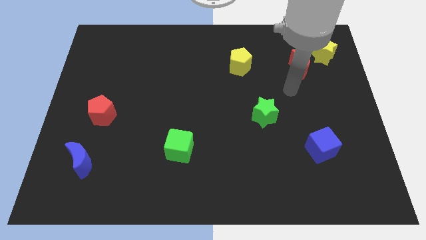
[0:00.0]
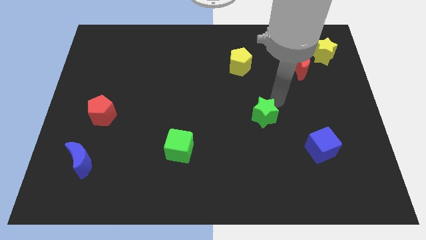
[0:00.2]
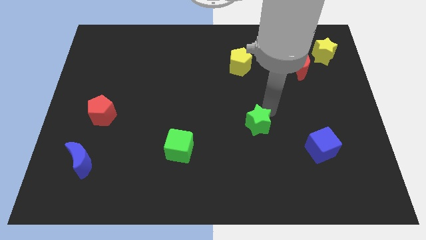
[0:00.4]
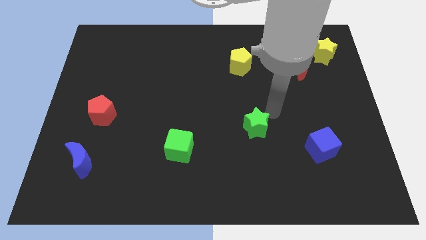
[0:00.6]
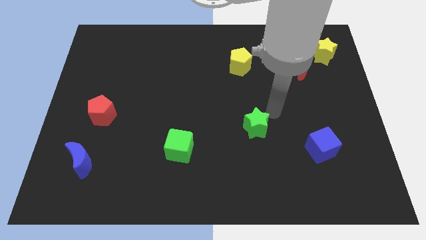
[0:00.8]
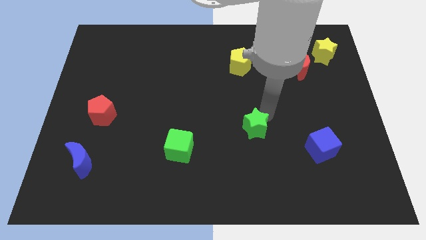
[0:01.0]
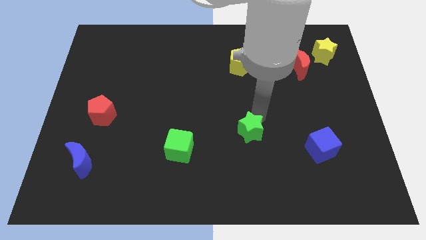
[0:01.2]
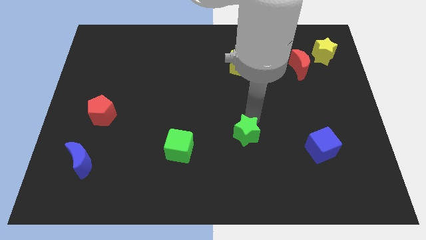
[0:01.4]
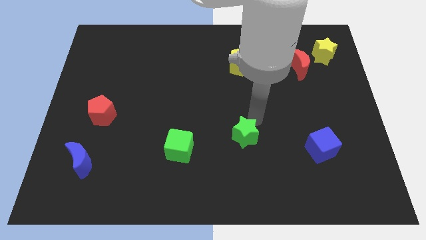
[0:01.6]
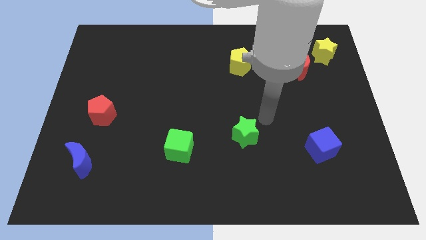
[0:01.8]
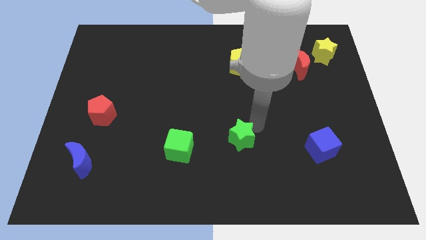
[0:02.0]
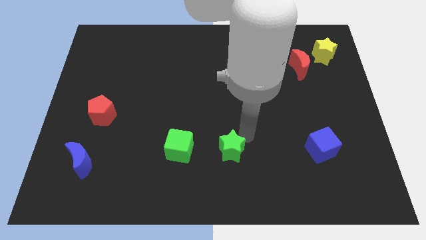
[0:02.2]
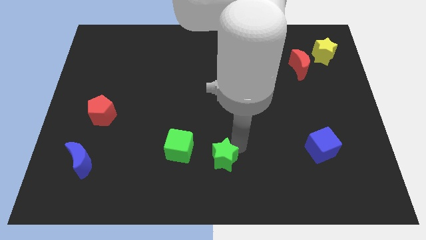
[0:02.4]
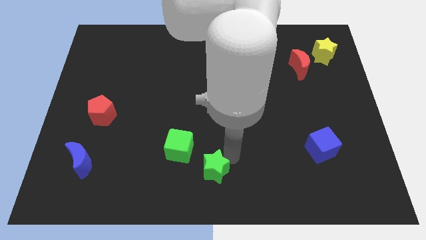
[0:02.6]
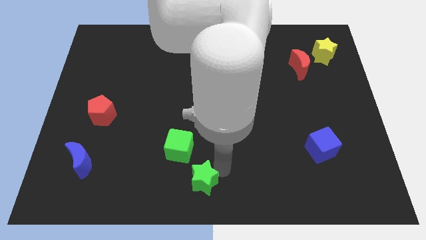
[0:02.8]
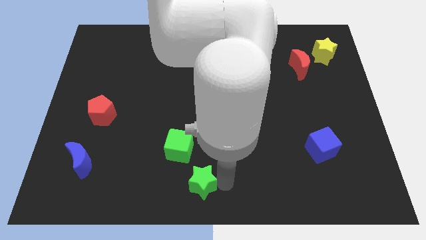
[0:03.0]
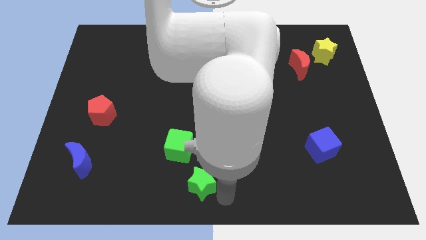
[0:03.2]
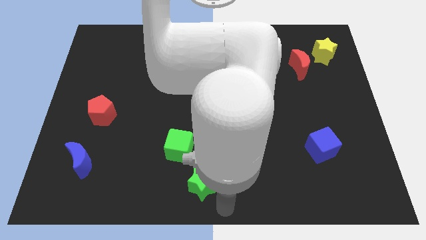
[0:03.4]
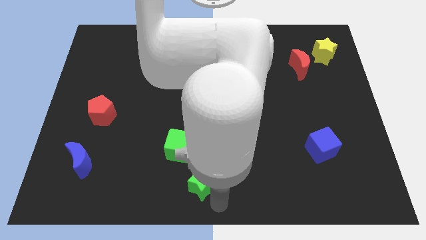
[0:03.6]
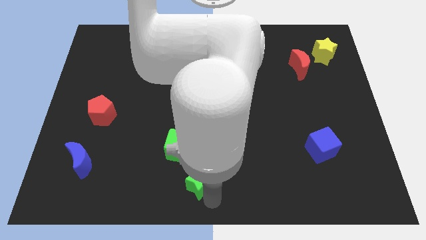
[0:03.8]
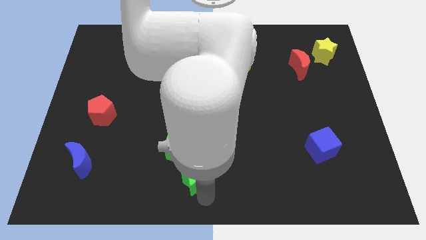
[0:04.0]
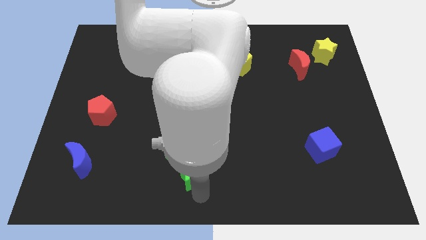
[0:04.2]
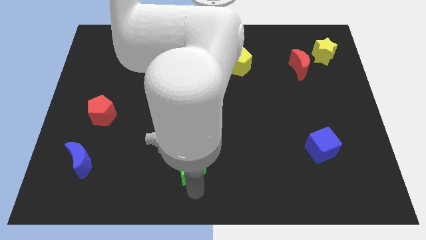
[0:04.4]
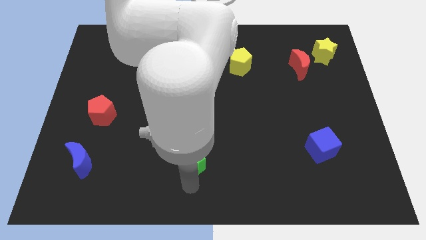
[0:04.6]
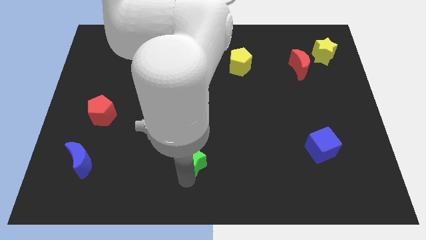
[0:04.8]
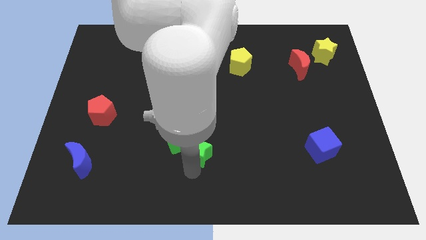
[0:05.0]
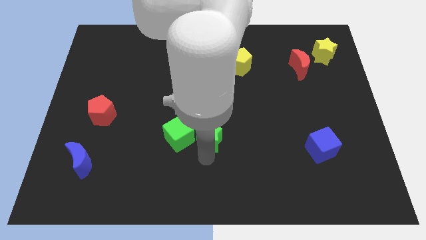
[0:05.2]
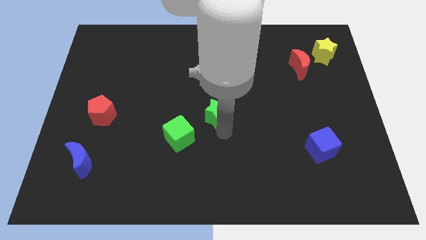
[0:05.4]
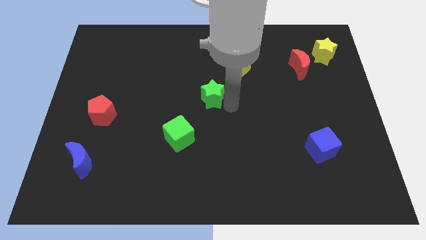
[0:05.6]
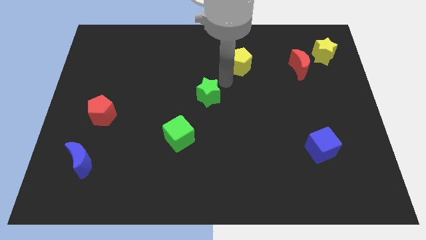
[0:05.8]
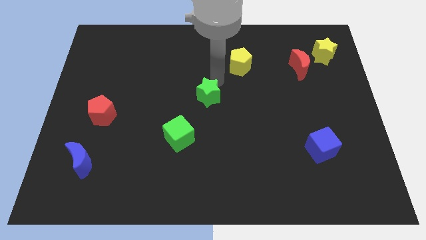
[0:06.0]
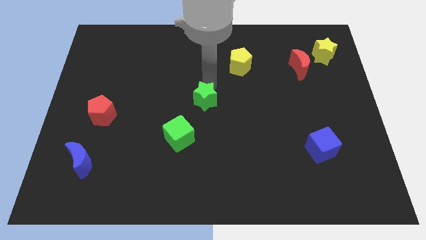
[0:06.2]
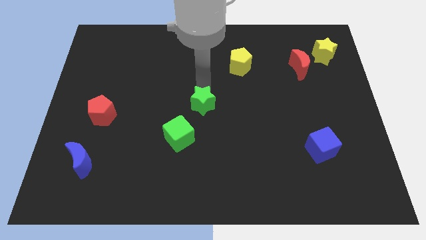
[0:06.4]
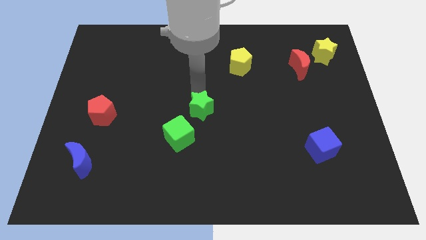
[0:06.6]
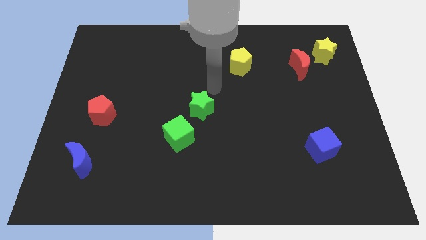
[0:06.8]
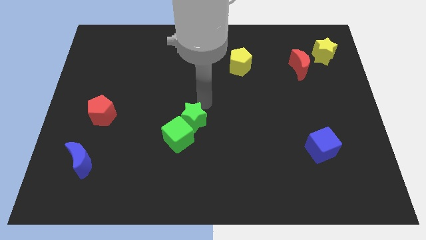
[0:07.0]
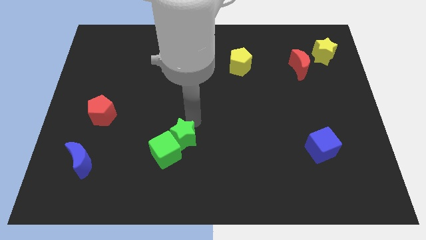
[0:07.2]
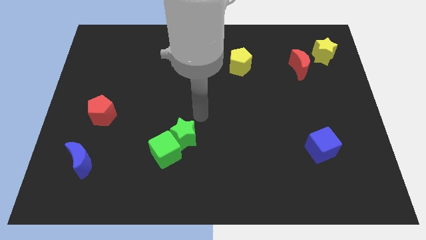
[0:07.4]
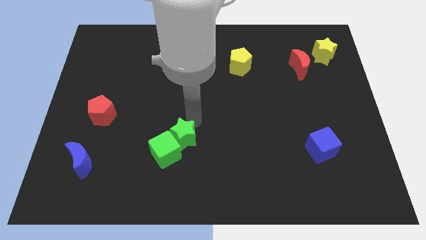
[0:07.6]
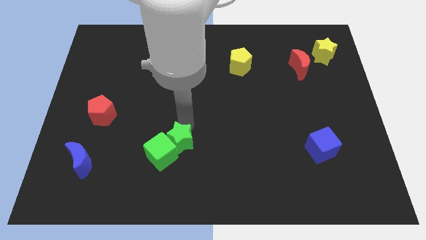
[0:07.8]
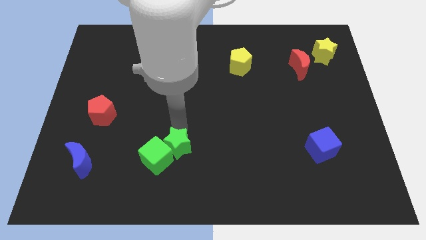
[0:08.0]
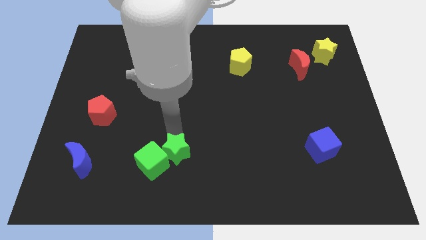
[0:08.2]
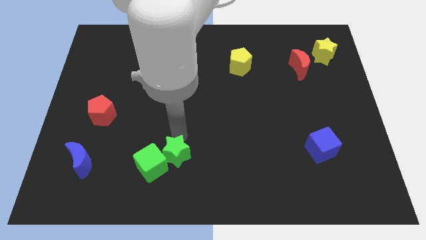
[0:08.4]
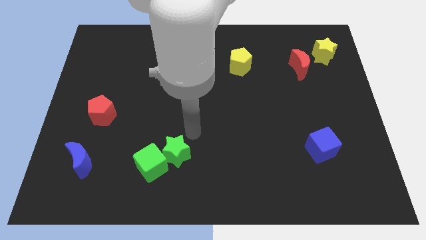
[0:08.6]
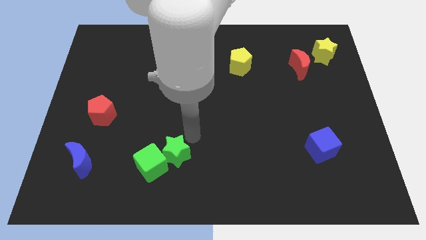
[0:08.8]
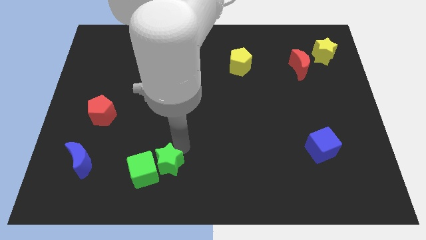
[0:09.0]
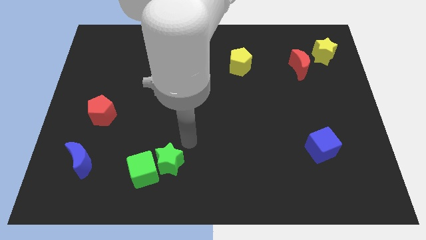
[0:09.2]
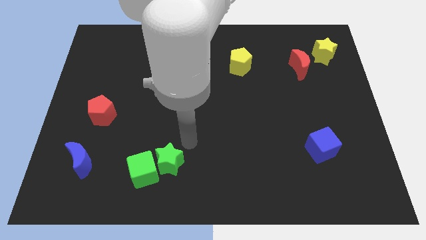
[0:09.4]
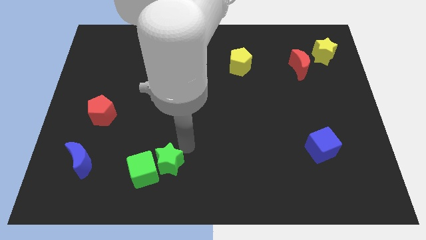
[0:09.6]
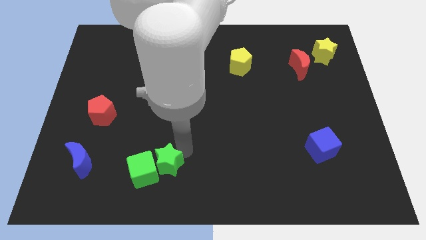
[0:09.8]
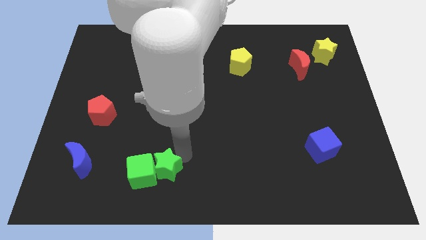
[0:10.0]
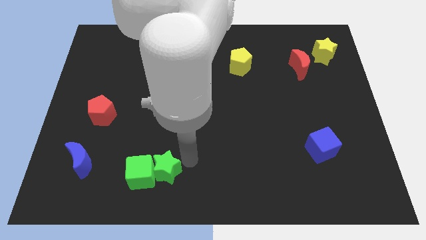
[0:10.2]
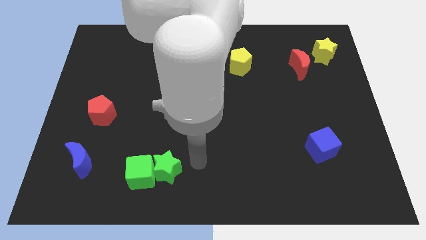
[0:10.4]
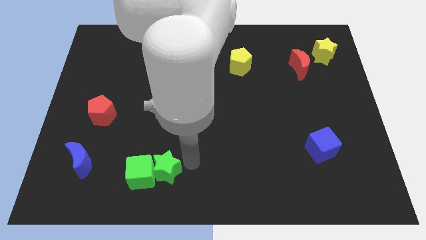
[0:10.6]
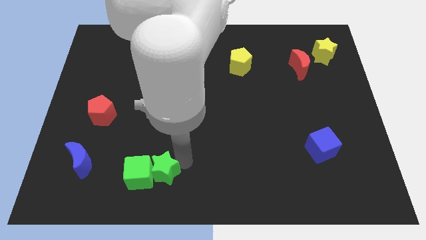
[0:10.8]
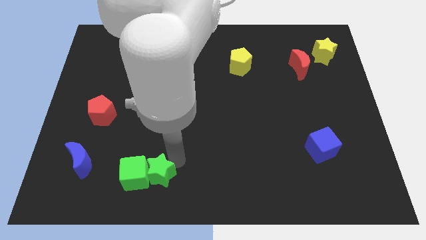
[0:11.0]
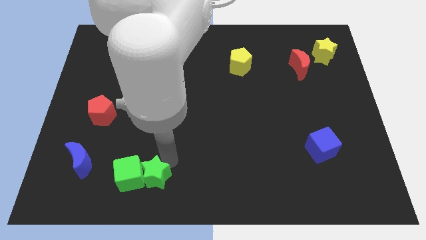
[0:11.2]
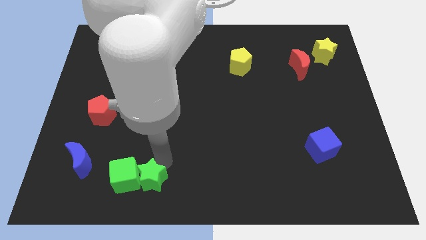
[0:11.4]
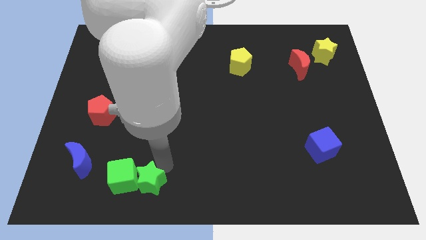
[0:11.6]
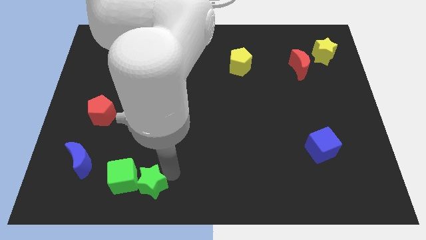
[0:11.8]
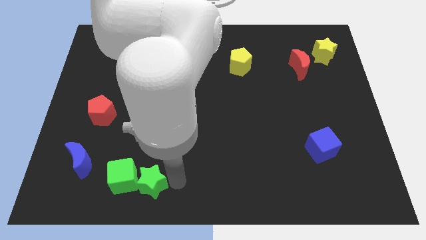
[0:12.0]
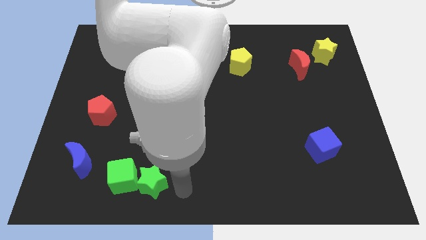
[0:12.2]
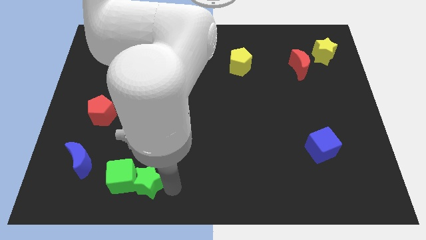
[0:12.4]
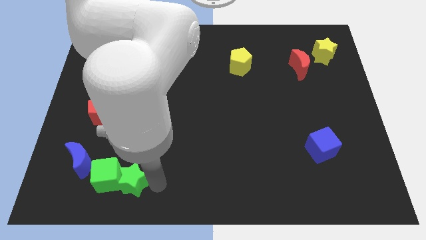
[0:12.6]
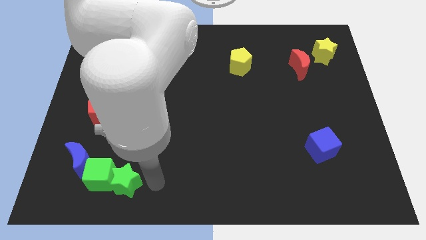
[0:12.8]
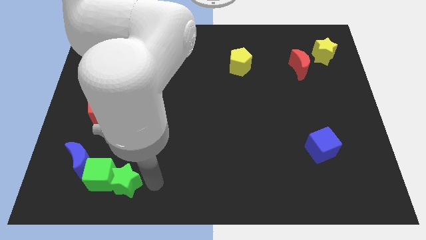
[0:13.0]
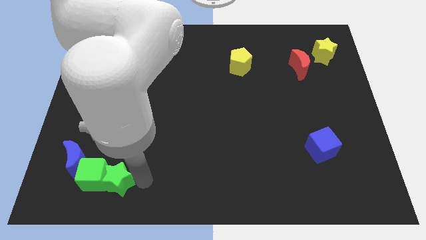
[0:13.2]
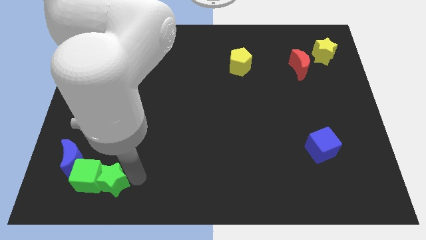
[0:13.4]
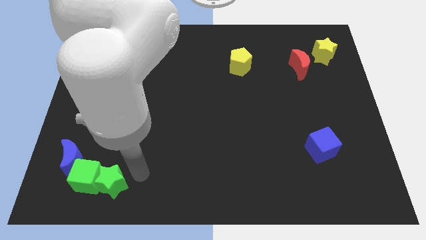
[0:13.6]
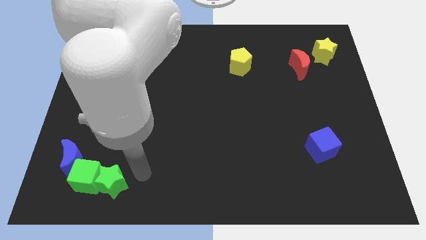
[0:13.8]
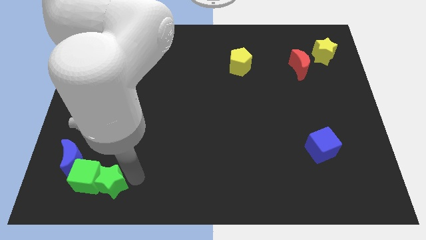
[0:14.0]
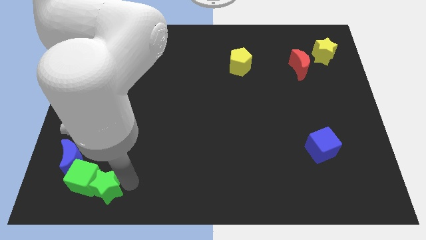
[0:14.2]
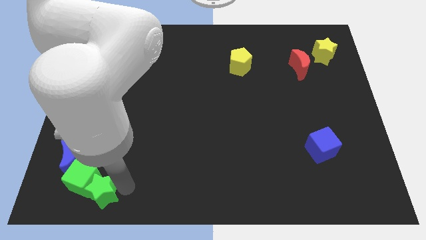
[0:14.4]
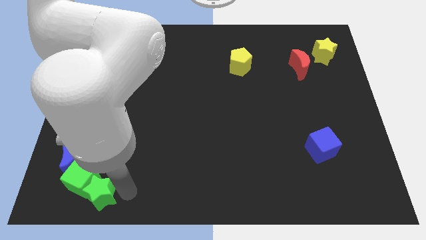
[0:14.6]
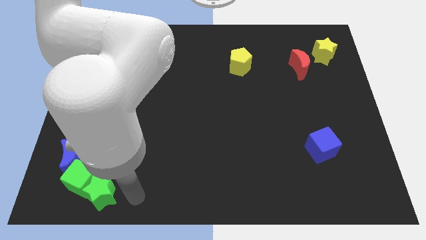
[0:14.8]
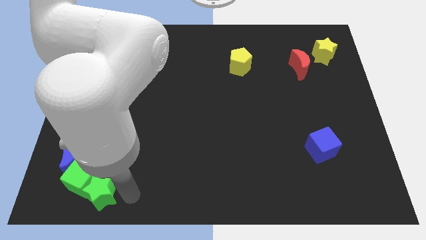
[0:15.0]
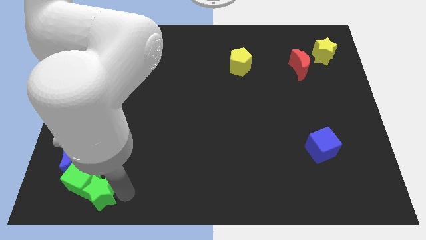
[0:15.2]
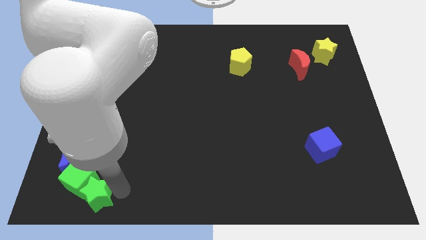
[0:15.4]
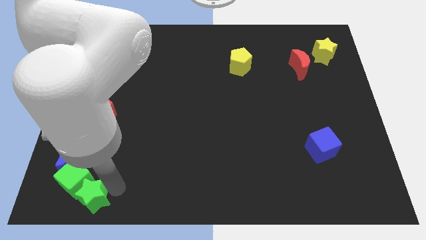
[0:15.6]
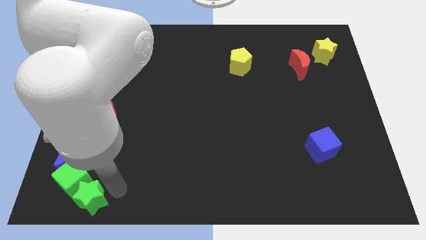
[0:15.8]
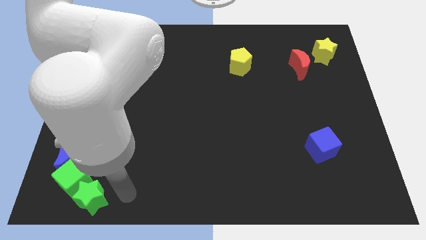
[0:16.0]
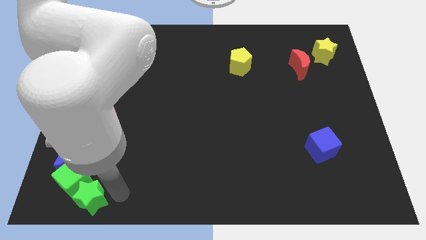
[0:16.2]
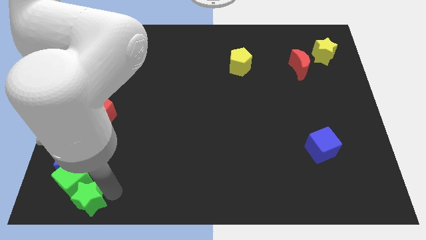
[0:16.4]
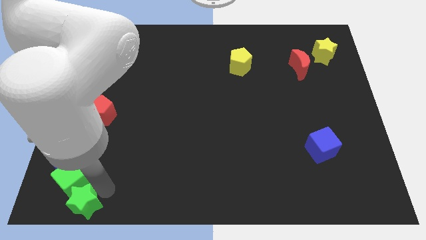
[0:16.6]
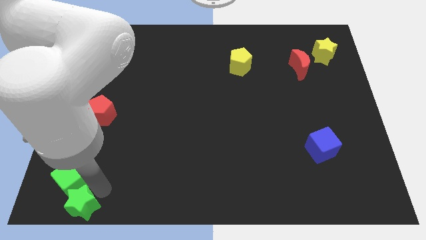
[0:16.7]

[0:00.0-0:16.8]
move the green star to the bottom left corner
